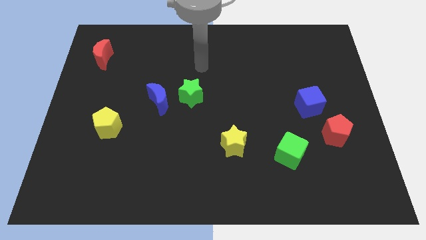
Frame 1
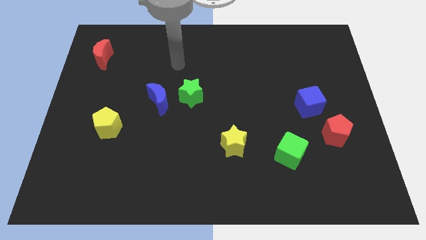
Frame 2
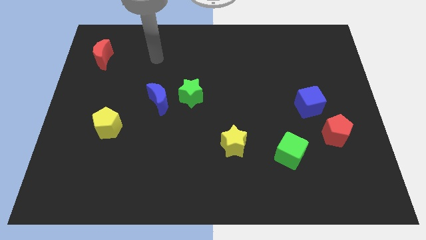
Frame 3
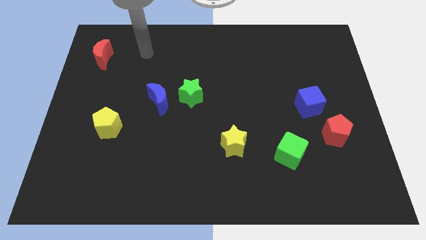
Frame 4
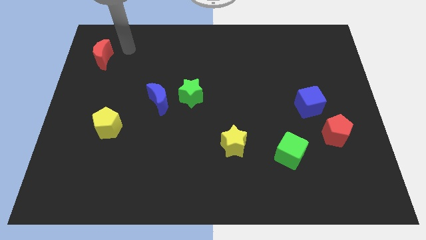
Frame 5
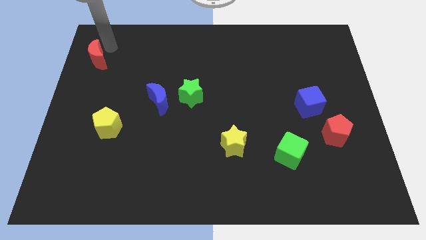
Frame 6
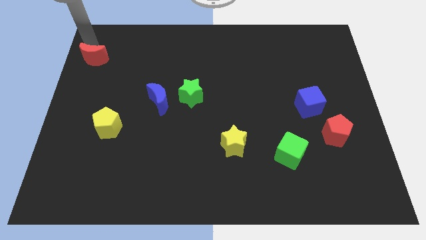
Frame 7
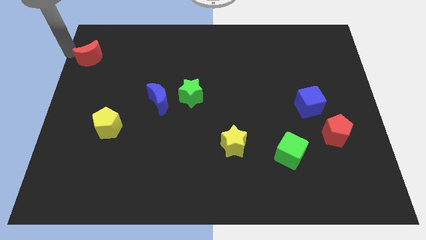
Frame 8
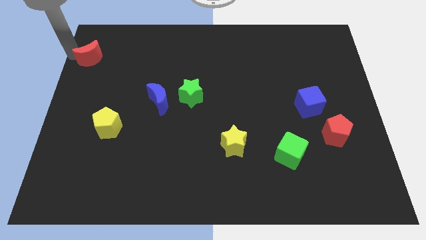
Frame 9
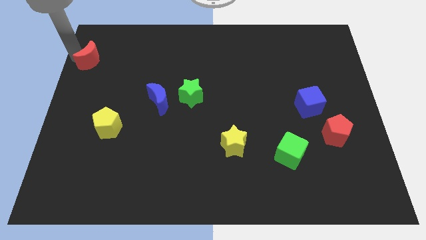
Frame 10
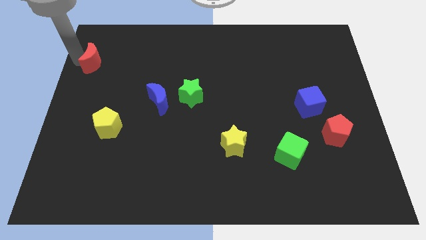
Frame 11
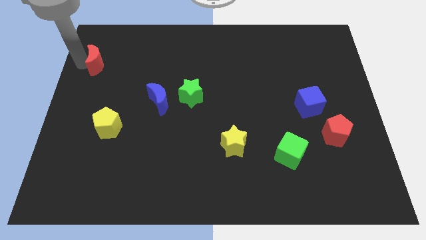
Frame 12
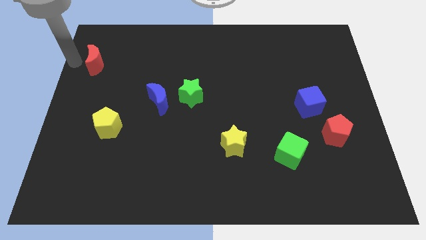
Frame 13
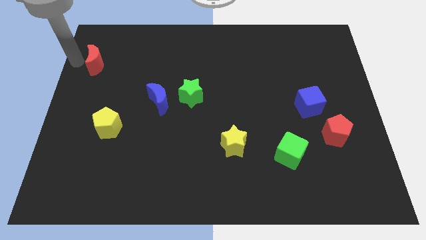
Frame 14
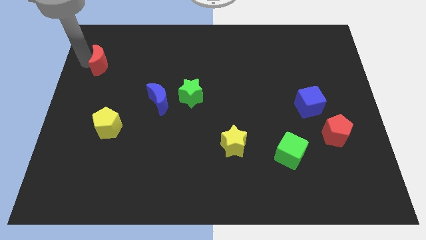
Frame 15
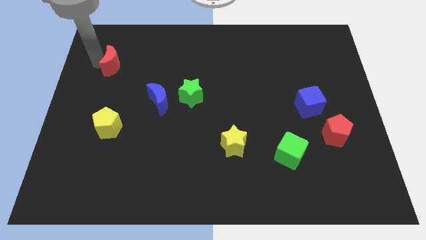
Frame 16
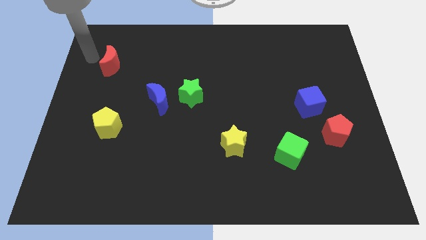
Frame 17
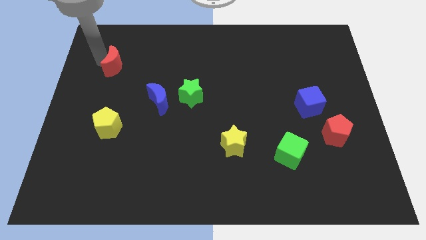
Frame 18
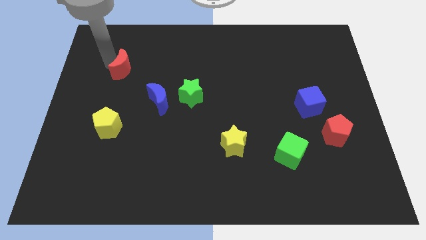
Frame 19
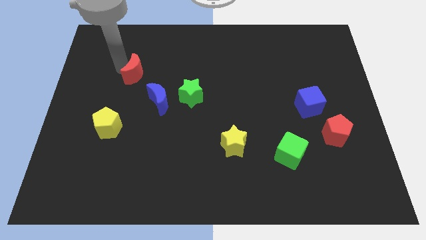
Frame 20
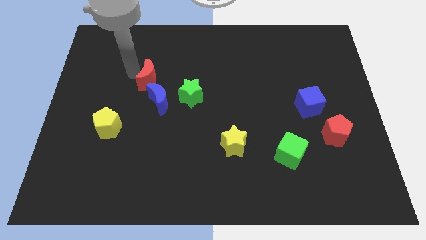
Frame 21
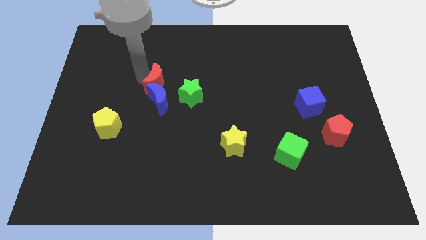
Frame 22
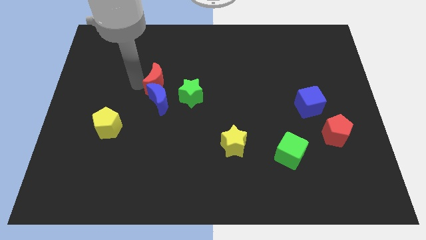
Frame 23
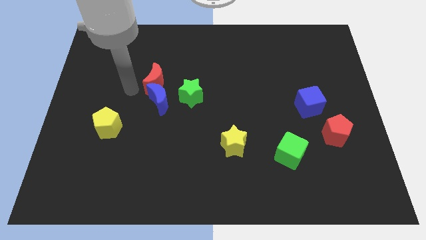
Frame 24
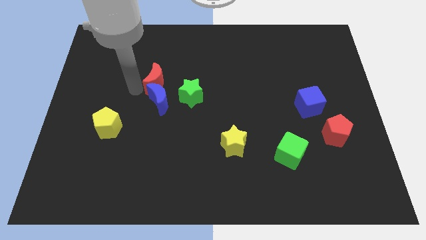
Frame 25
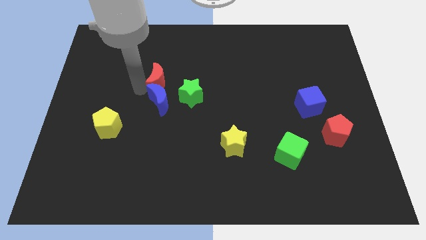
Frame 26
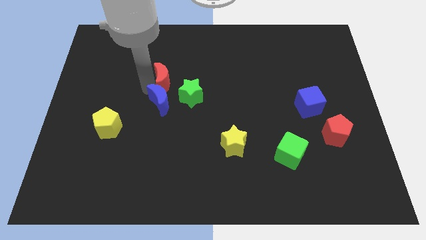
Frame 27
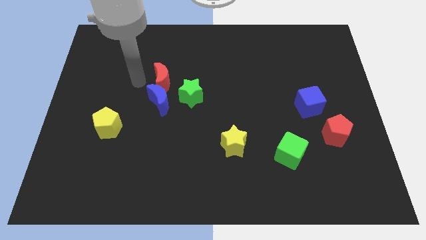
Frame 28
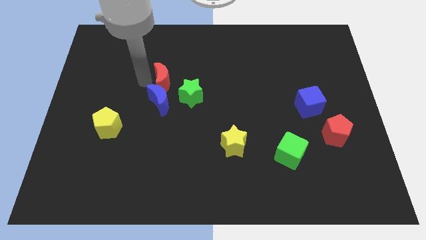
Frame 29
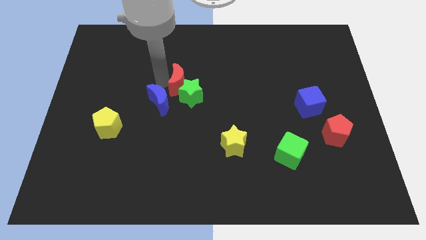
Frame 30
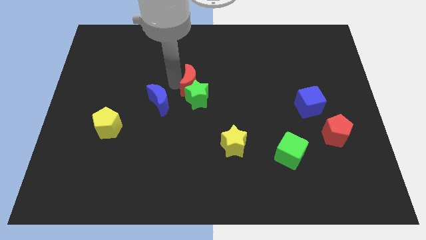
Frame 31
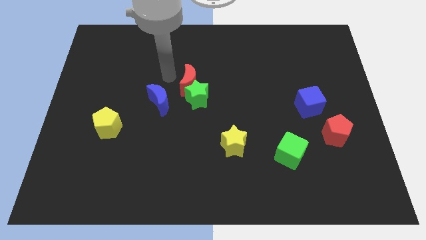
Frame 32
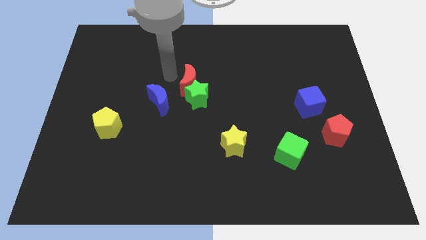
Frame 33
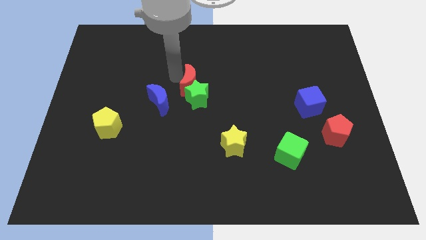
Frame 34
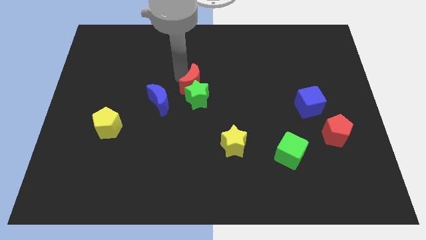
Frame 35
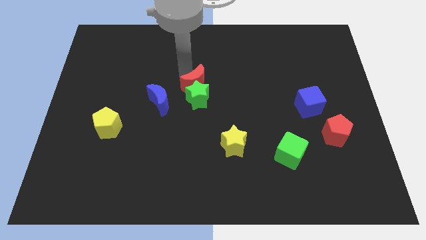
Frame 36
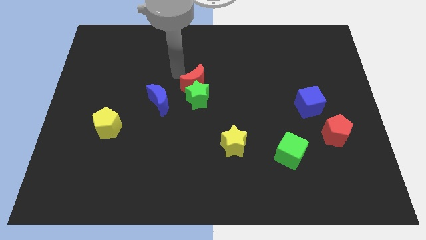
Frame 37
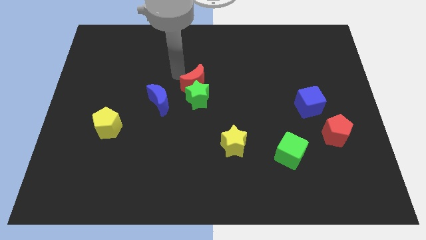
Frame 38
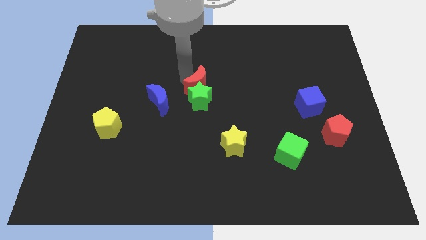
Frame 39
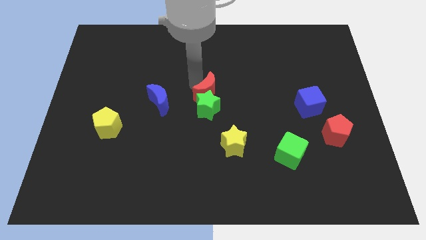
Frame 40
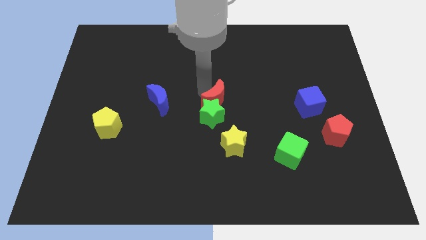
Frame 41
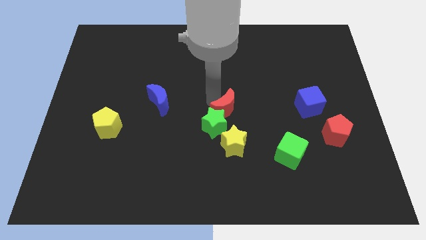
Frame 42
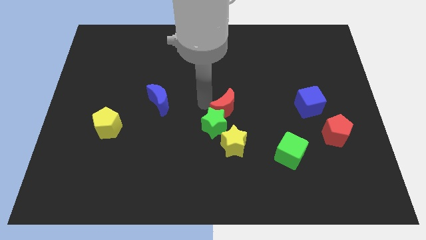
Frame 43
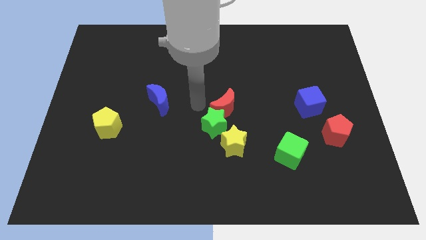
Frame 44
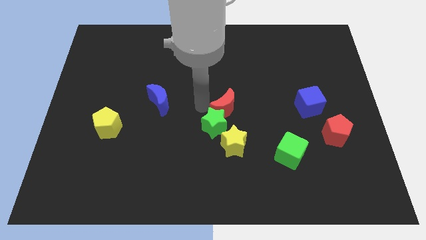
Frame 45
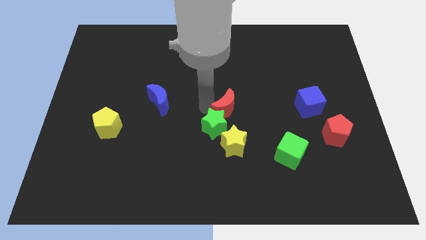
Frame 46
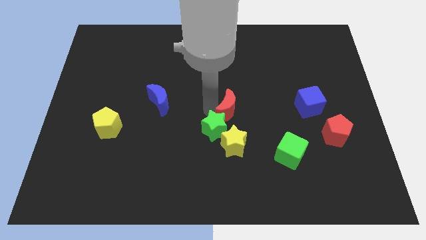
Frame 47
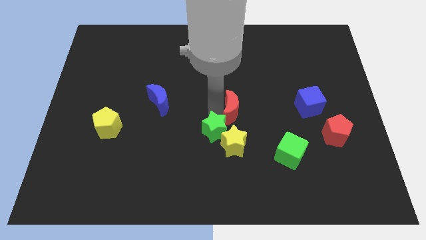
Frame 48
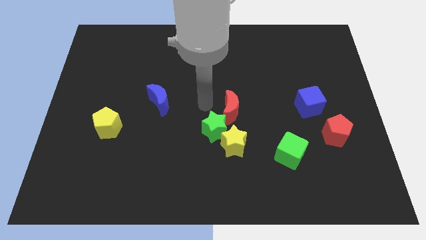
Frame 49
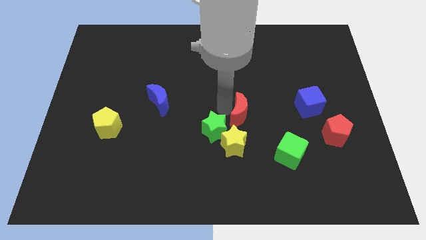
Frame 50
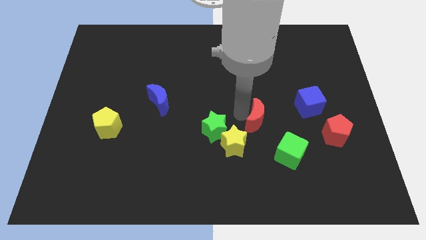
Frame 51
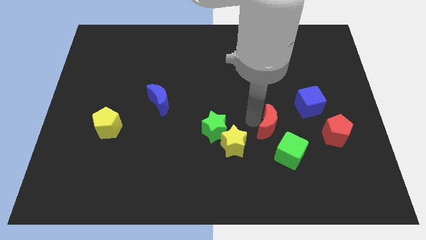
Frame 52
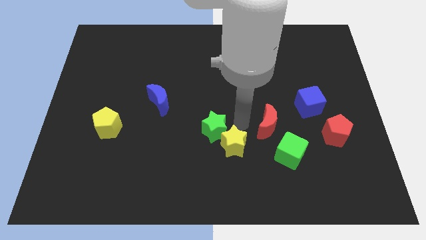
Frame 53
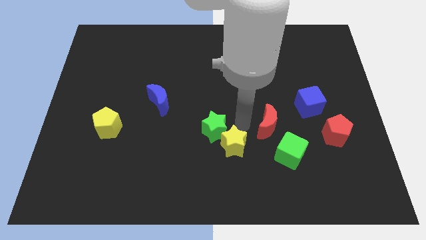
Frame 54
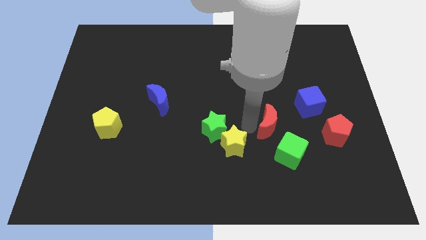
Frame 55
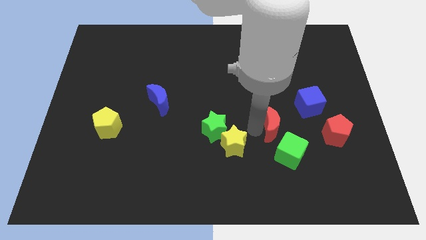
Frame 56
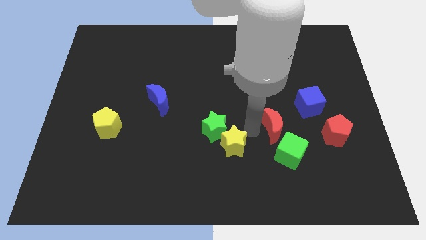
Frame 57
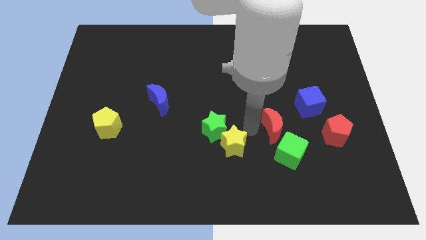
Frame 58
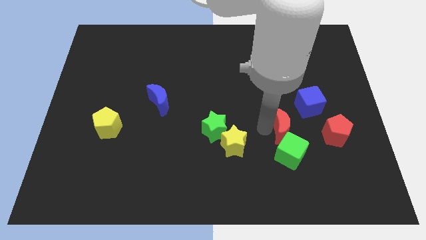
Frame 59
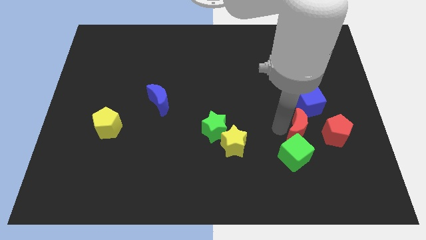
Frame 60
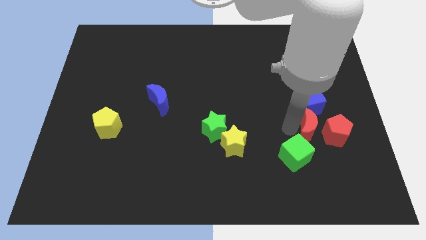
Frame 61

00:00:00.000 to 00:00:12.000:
slide the red moon close to the red pentagon
